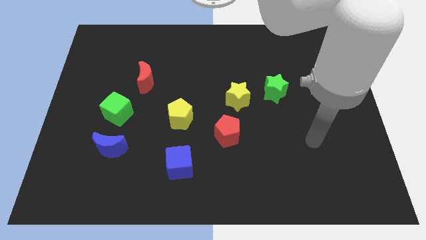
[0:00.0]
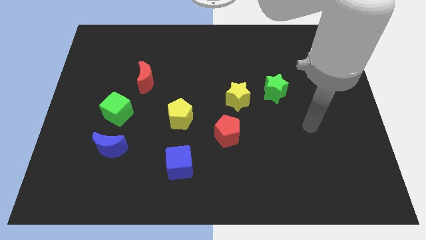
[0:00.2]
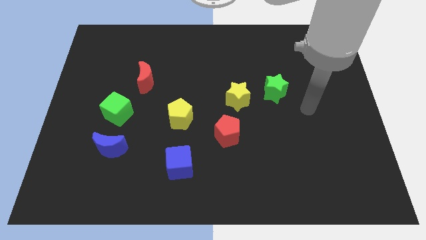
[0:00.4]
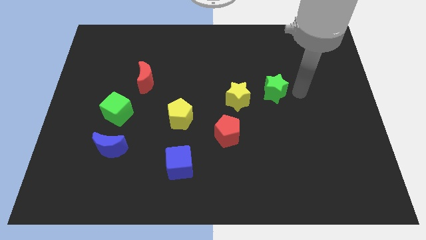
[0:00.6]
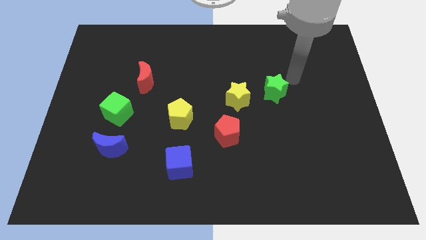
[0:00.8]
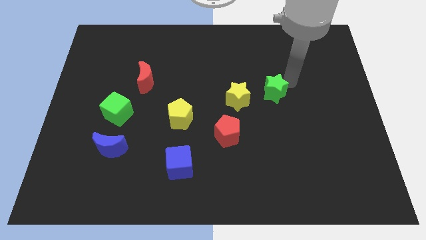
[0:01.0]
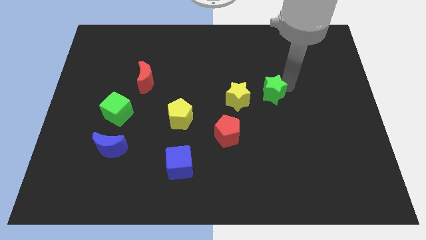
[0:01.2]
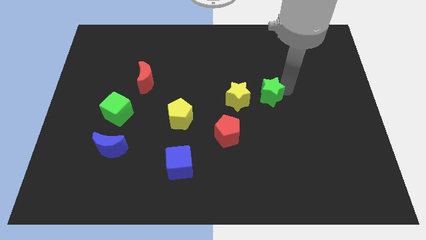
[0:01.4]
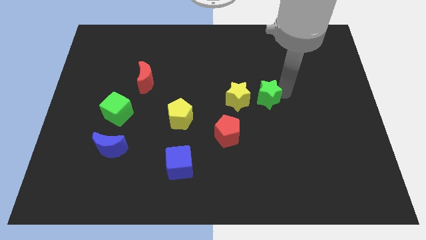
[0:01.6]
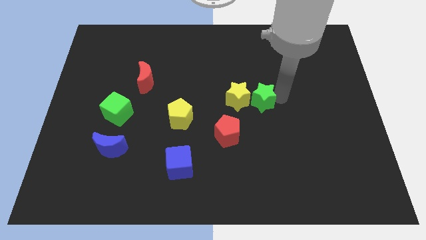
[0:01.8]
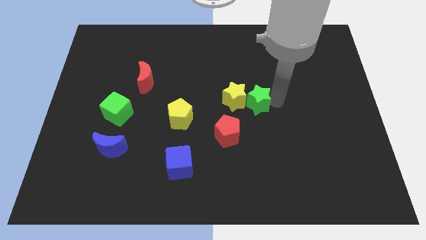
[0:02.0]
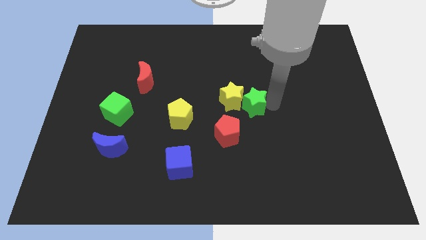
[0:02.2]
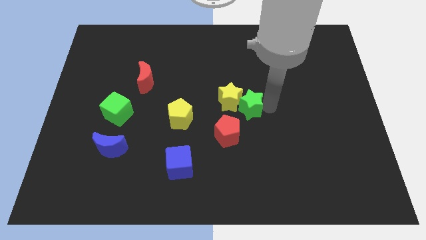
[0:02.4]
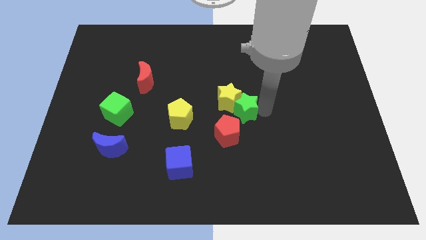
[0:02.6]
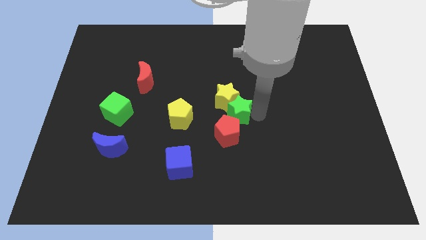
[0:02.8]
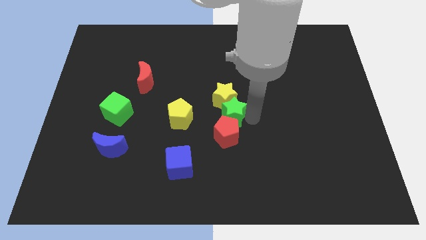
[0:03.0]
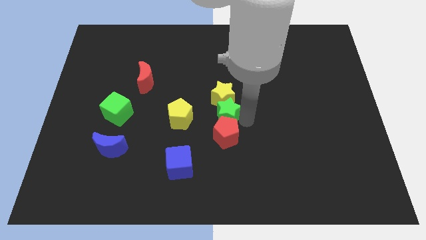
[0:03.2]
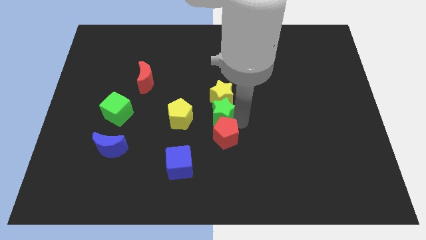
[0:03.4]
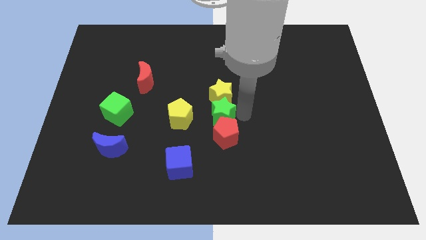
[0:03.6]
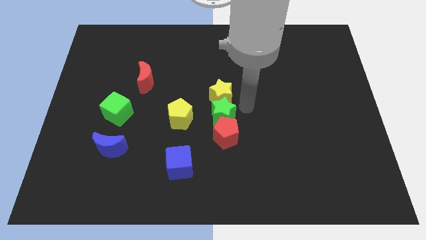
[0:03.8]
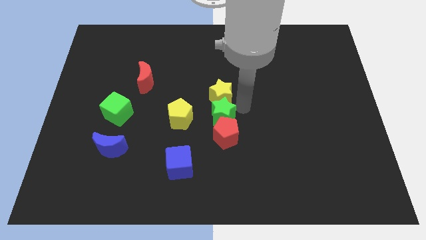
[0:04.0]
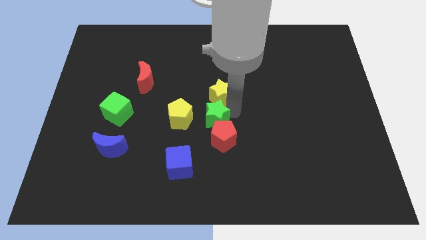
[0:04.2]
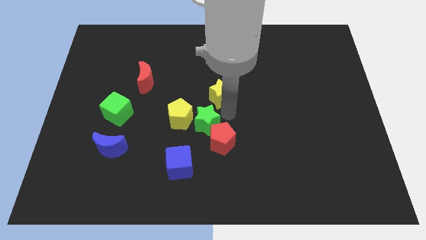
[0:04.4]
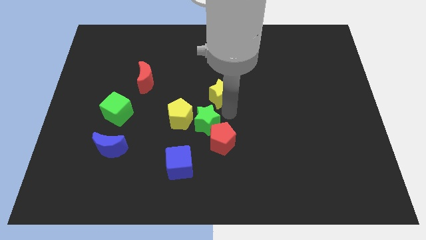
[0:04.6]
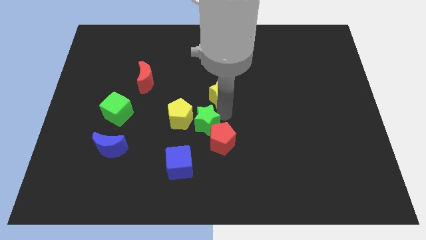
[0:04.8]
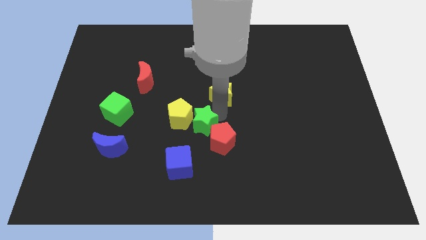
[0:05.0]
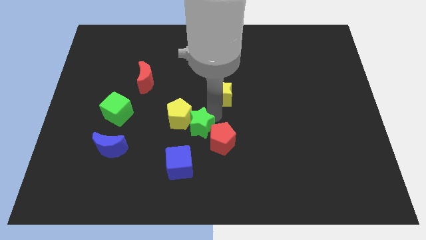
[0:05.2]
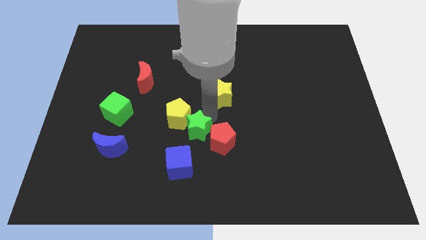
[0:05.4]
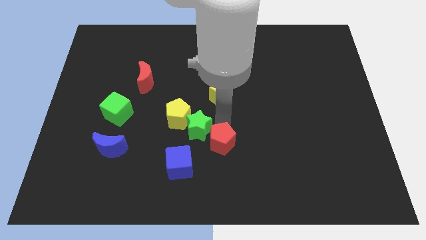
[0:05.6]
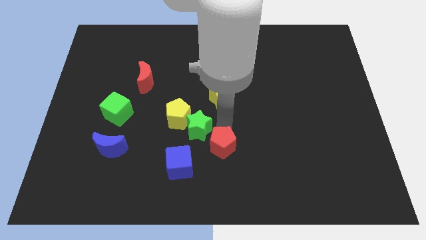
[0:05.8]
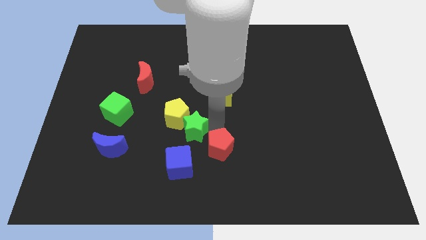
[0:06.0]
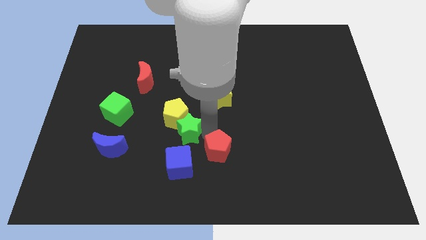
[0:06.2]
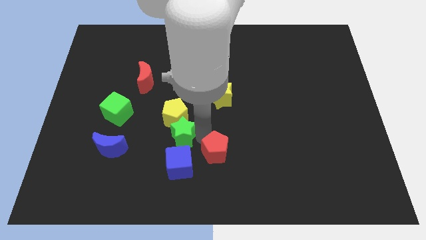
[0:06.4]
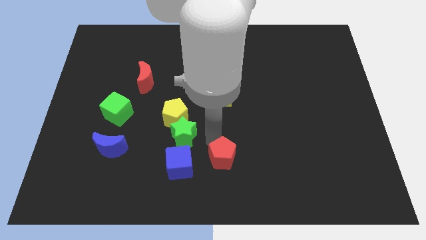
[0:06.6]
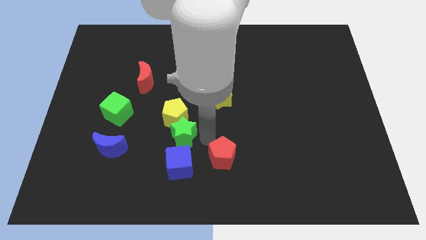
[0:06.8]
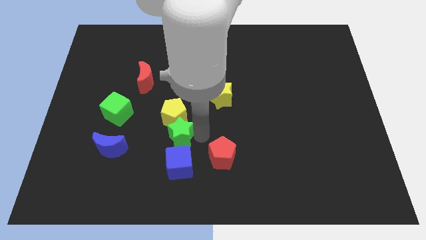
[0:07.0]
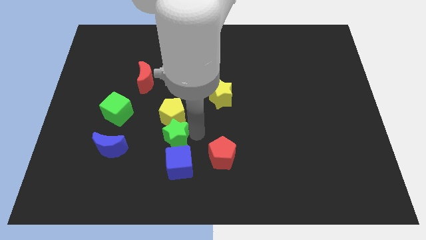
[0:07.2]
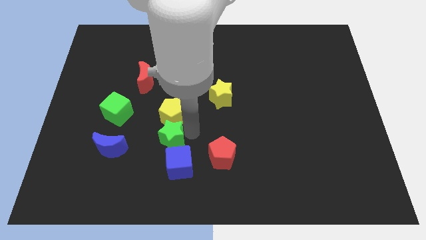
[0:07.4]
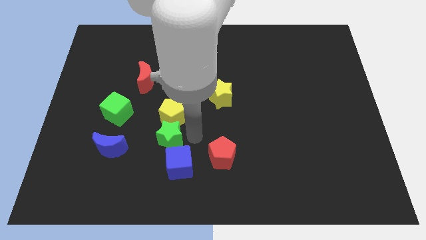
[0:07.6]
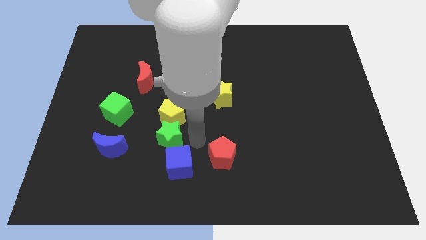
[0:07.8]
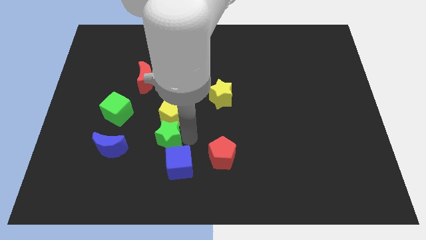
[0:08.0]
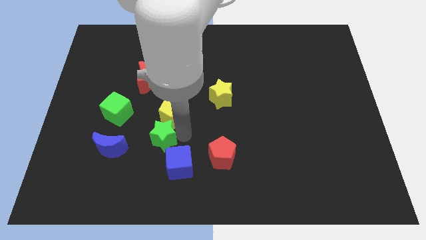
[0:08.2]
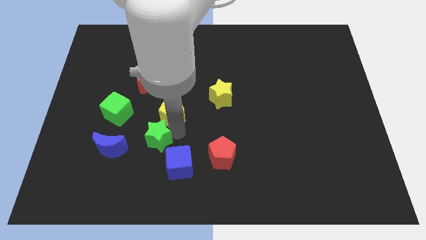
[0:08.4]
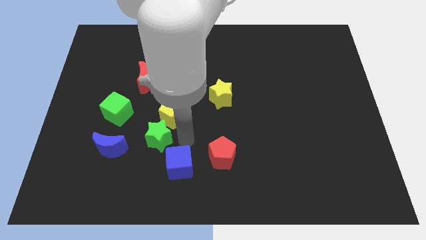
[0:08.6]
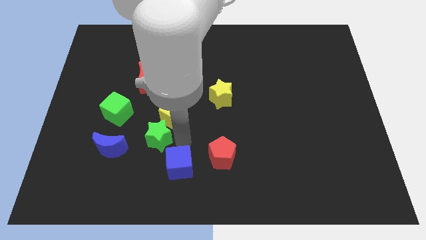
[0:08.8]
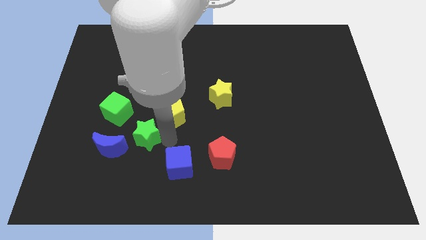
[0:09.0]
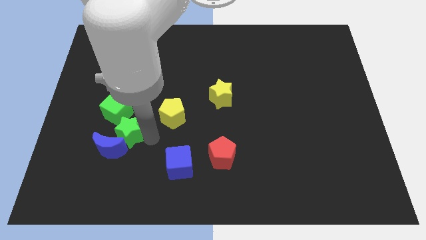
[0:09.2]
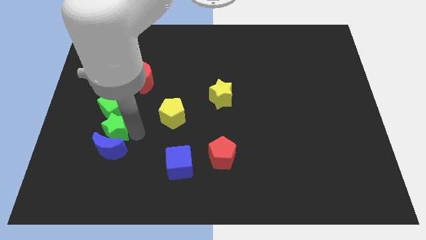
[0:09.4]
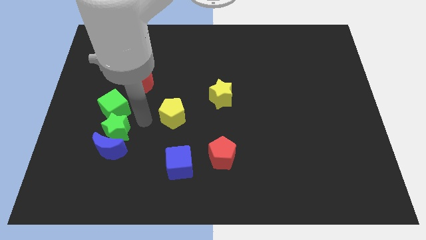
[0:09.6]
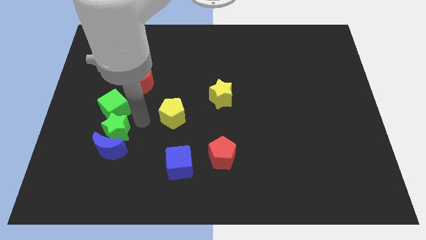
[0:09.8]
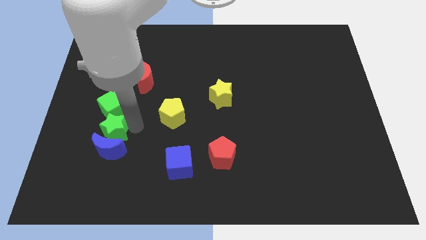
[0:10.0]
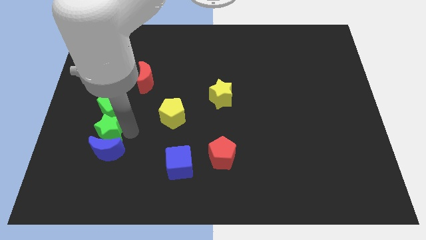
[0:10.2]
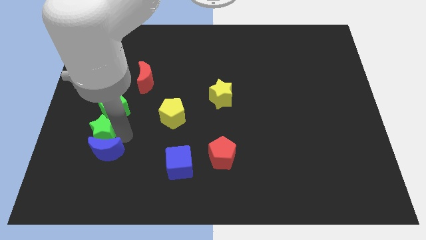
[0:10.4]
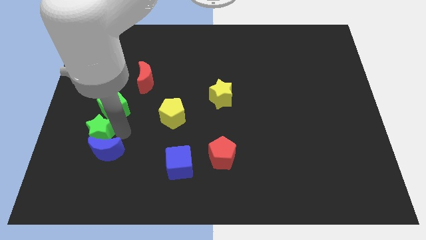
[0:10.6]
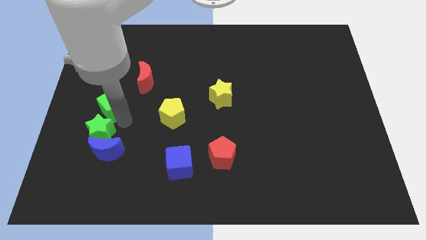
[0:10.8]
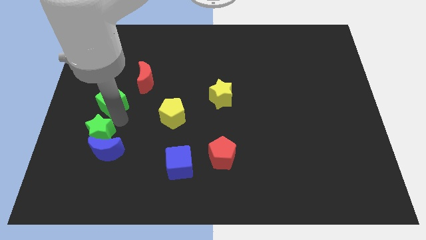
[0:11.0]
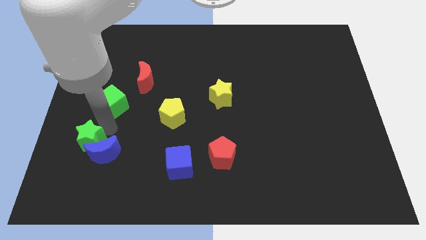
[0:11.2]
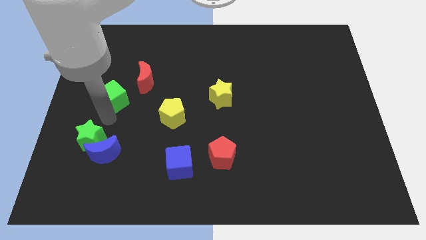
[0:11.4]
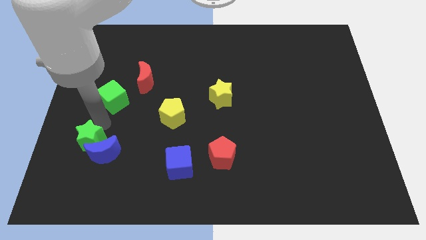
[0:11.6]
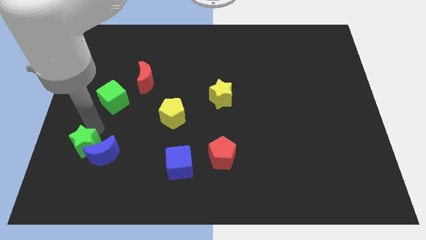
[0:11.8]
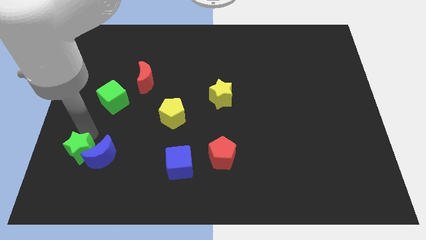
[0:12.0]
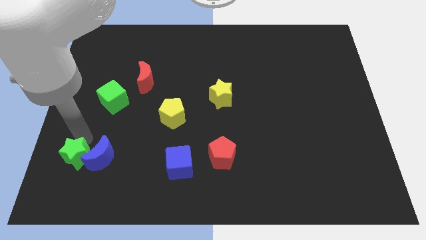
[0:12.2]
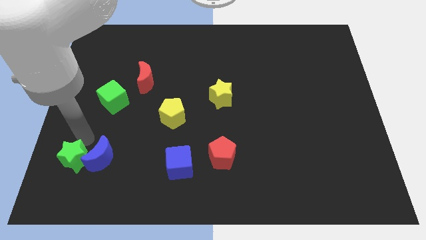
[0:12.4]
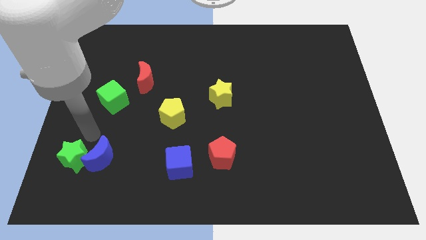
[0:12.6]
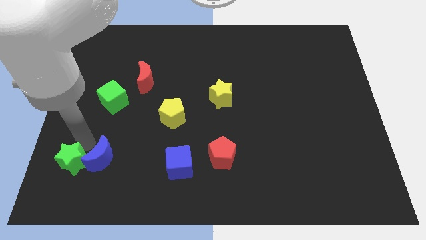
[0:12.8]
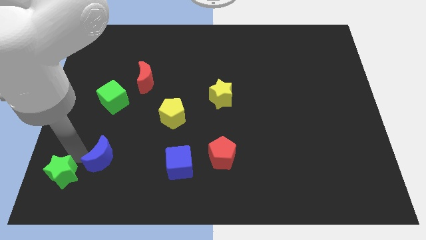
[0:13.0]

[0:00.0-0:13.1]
put the green star to the bottom left corner
